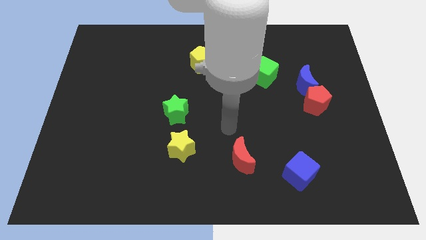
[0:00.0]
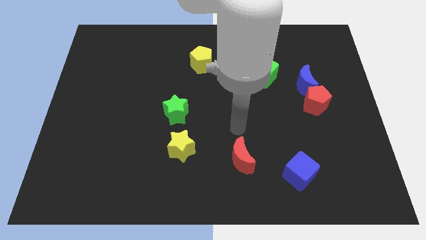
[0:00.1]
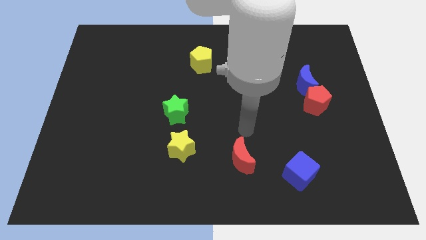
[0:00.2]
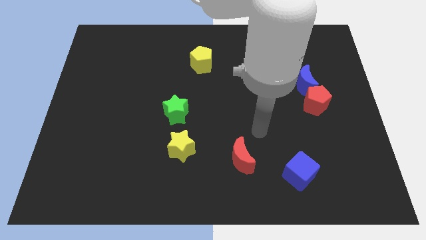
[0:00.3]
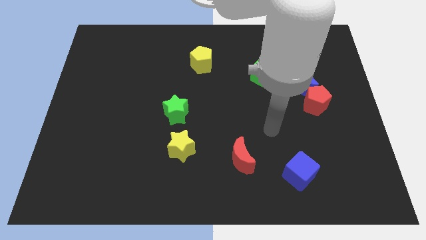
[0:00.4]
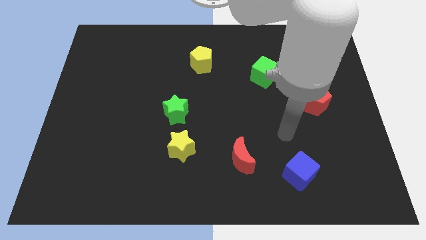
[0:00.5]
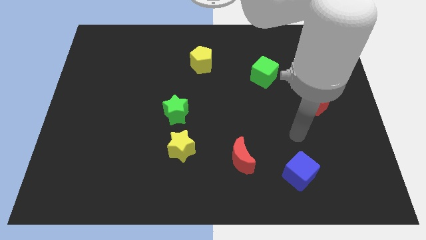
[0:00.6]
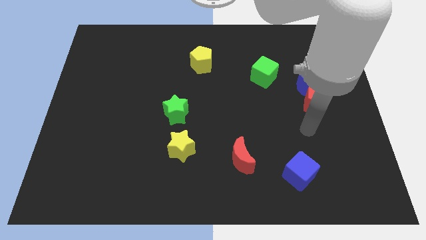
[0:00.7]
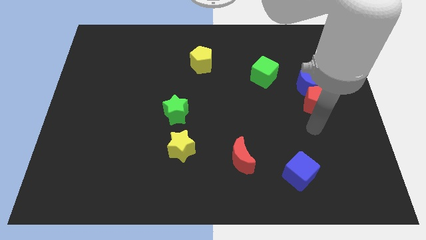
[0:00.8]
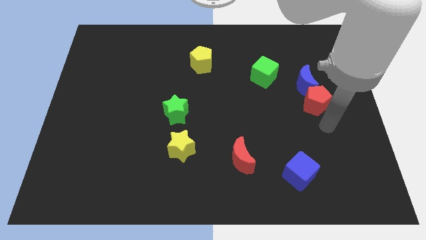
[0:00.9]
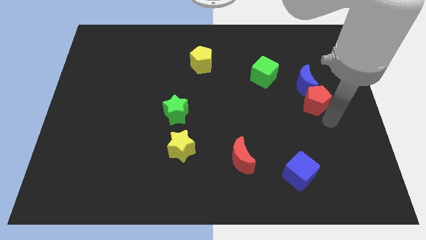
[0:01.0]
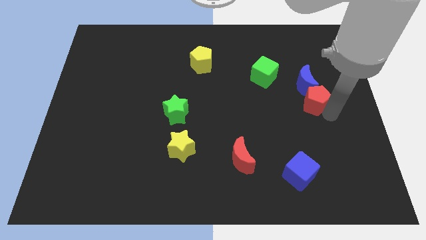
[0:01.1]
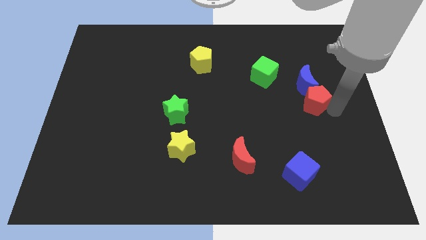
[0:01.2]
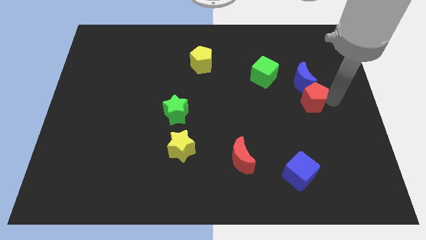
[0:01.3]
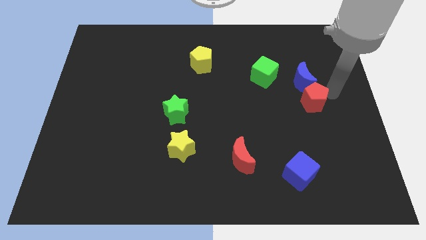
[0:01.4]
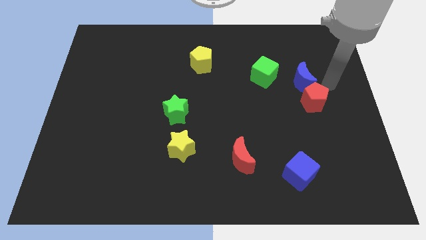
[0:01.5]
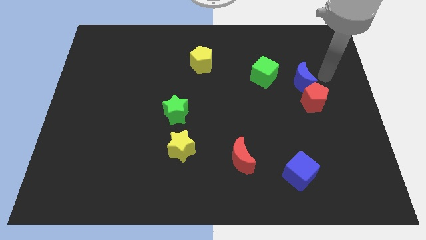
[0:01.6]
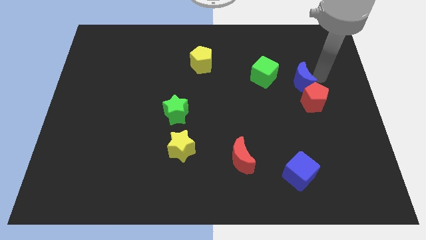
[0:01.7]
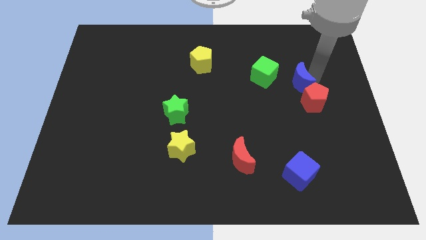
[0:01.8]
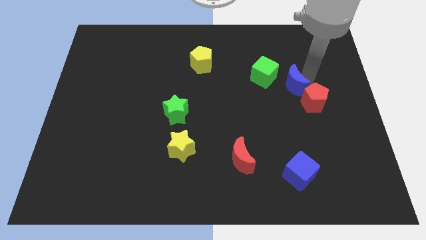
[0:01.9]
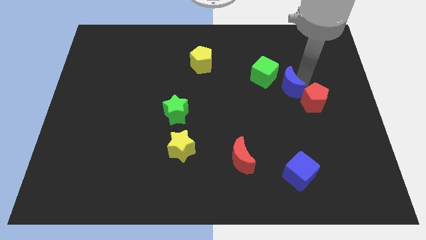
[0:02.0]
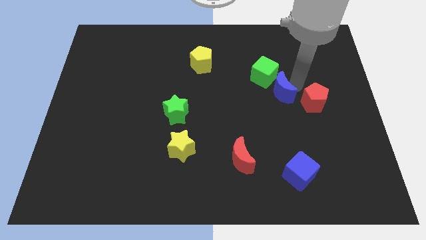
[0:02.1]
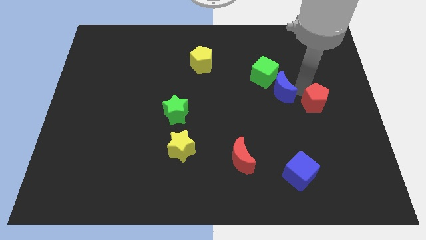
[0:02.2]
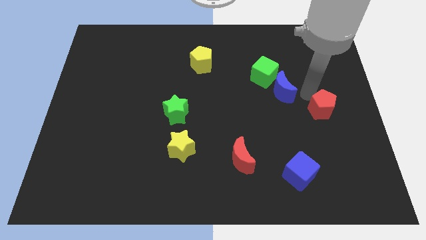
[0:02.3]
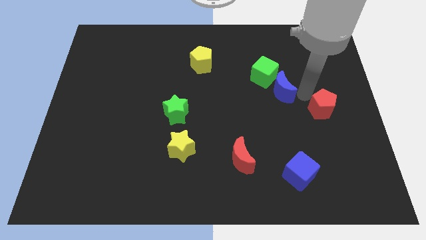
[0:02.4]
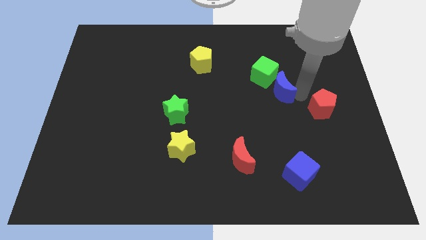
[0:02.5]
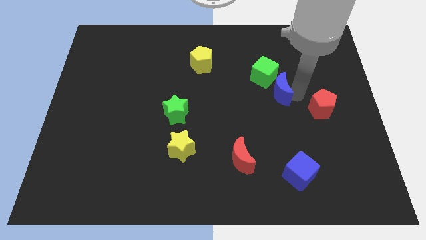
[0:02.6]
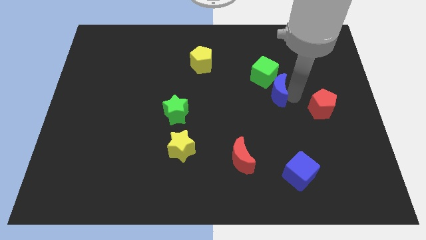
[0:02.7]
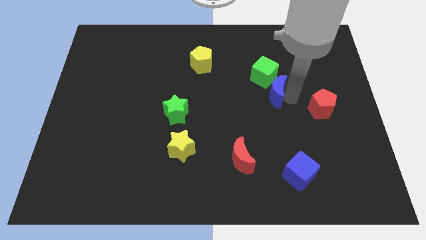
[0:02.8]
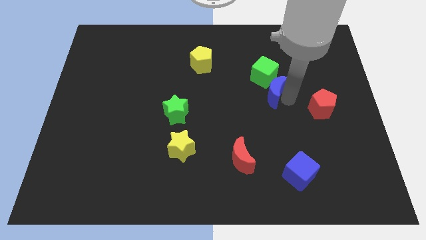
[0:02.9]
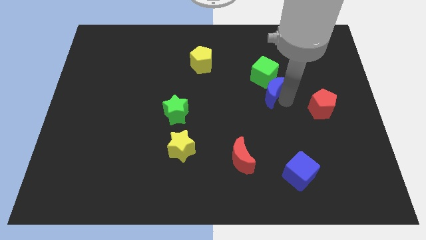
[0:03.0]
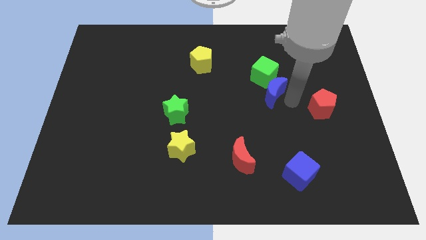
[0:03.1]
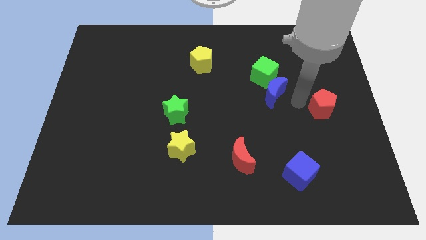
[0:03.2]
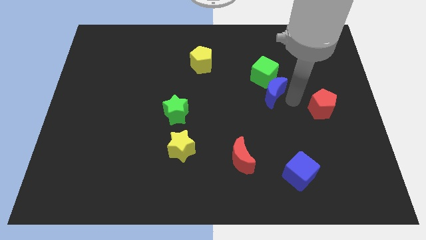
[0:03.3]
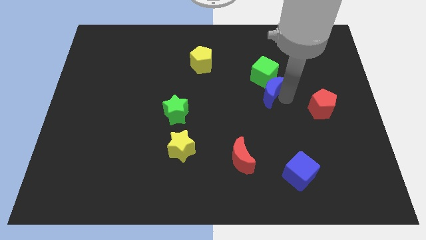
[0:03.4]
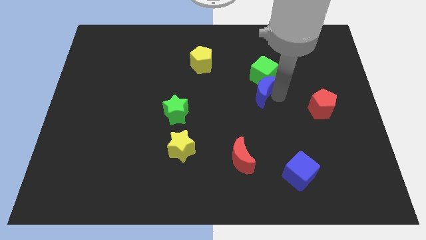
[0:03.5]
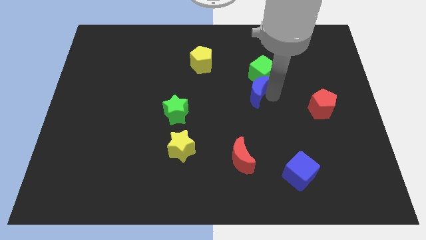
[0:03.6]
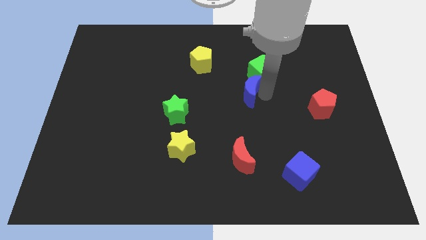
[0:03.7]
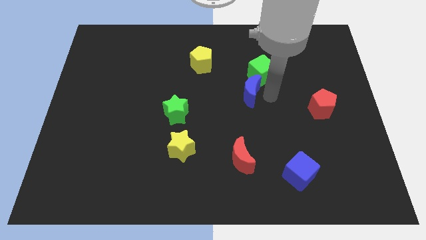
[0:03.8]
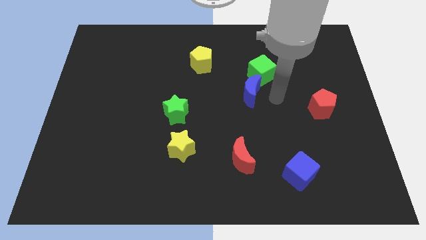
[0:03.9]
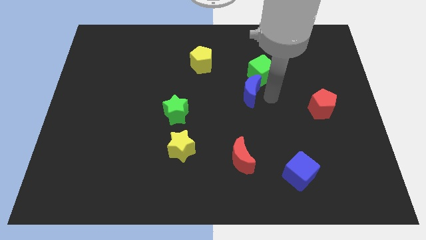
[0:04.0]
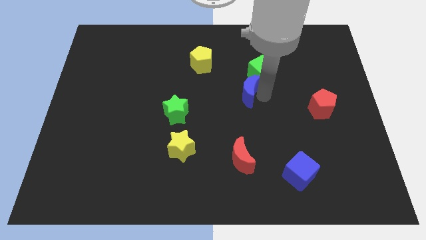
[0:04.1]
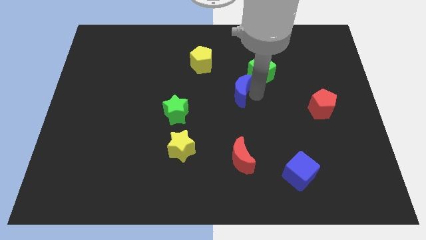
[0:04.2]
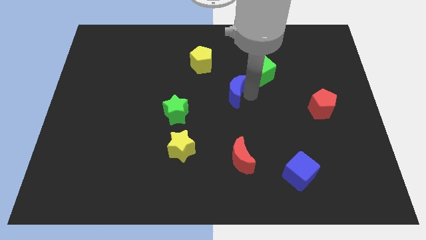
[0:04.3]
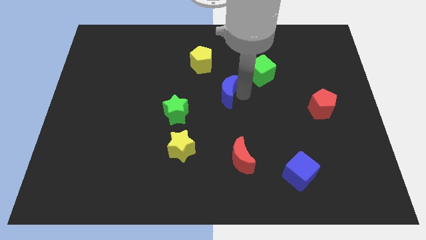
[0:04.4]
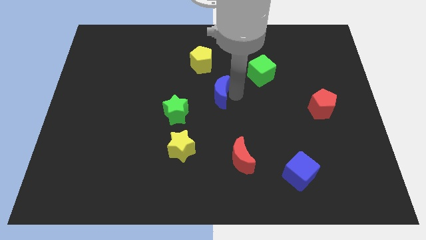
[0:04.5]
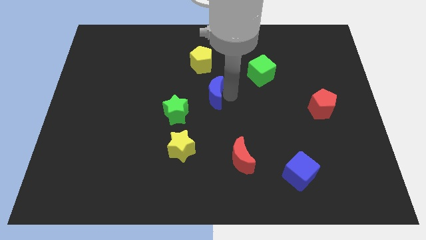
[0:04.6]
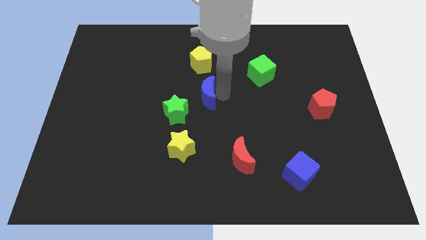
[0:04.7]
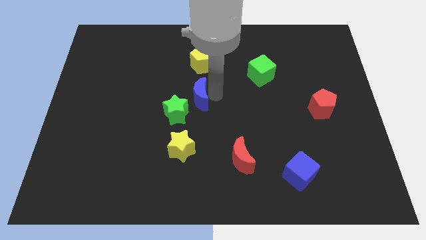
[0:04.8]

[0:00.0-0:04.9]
push the blue moon to the top side of the yellow star

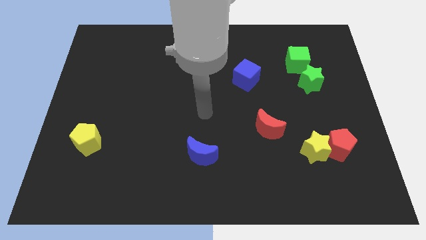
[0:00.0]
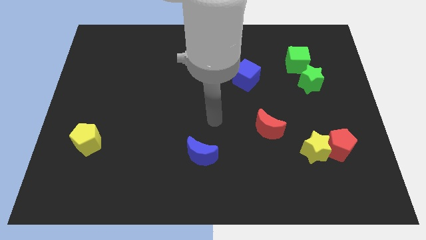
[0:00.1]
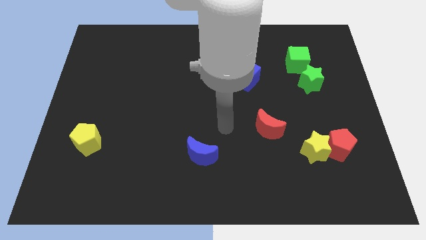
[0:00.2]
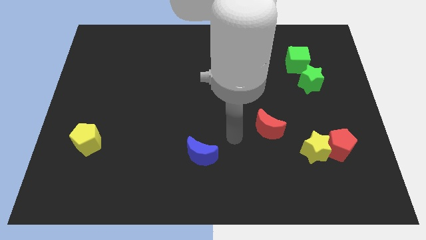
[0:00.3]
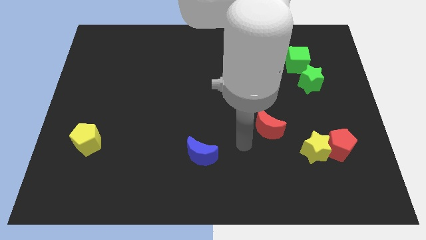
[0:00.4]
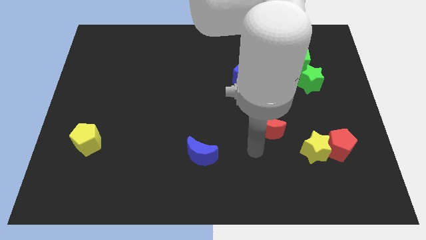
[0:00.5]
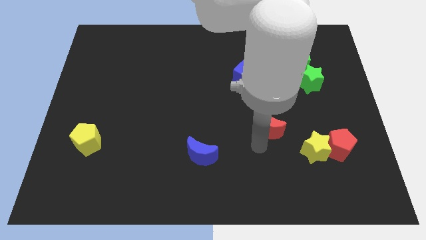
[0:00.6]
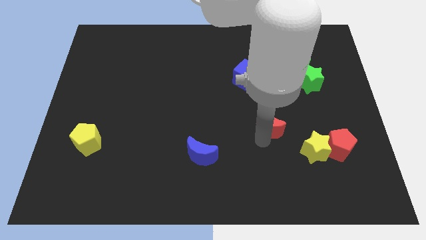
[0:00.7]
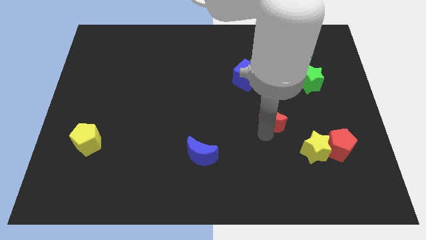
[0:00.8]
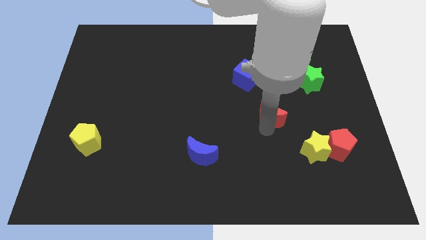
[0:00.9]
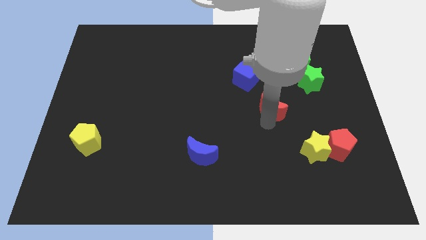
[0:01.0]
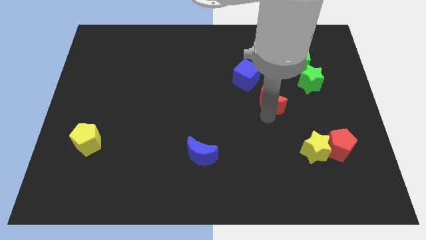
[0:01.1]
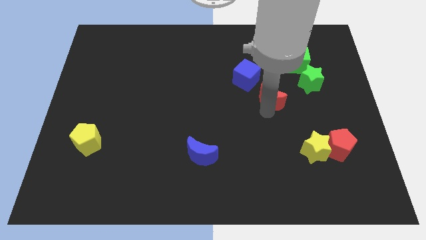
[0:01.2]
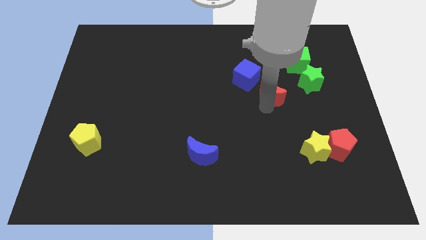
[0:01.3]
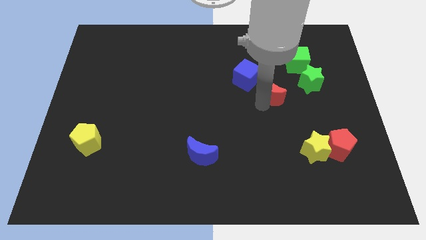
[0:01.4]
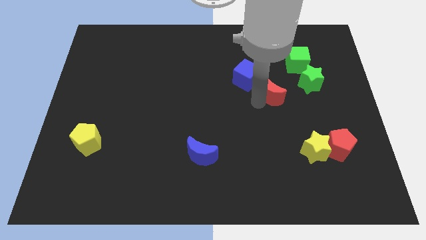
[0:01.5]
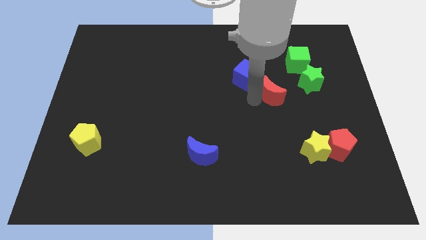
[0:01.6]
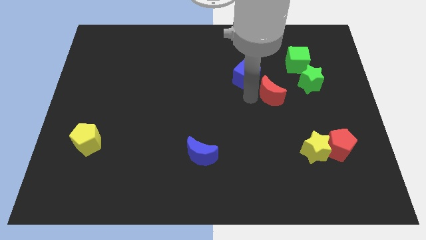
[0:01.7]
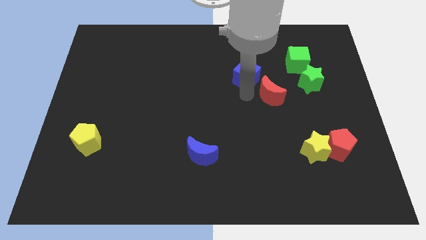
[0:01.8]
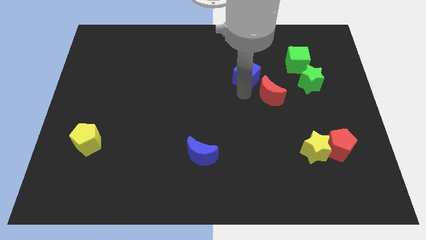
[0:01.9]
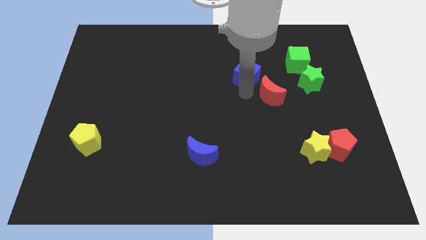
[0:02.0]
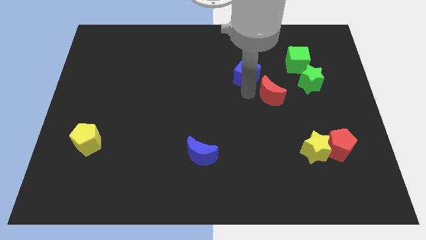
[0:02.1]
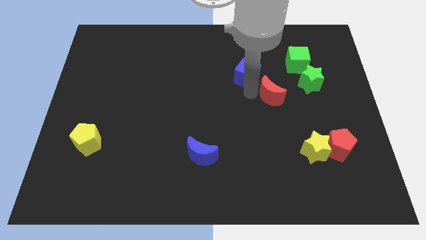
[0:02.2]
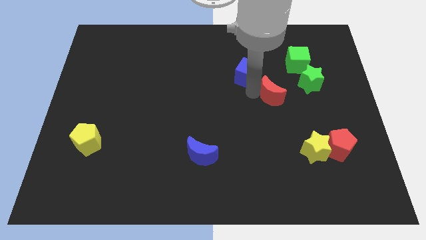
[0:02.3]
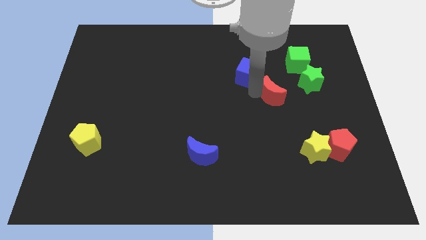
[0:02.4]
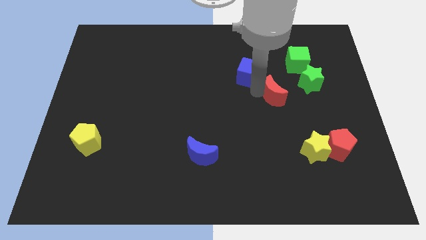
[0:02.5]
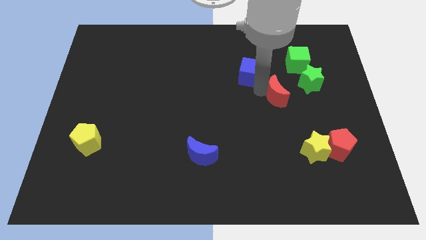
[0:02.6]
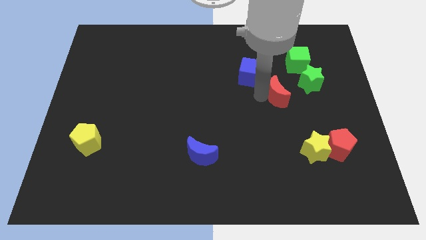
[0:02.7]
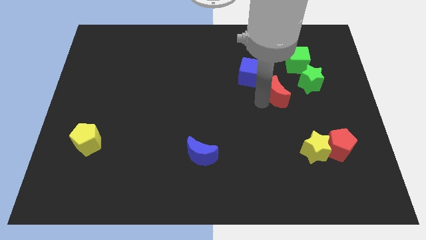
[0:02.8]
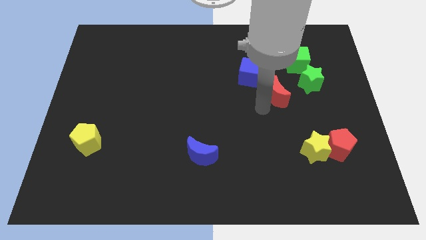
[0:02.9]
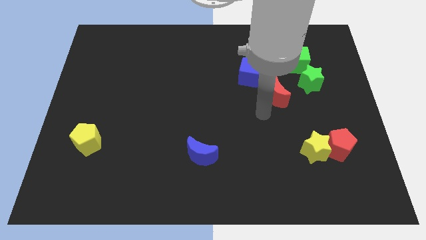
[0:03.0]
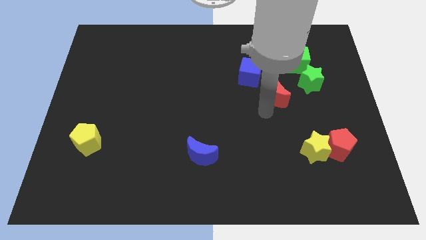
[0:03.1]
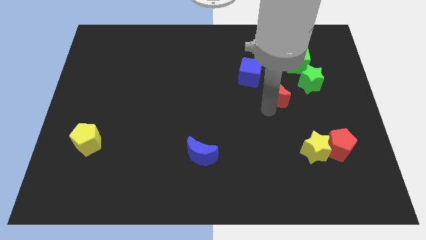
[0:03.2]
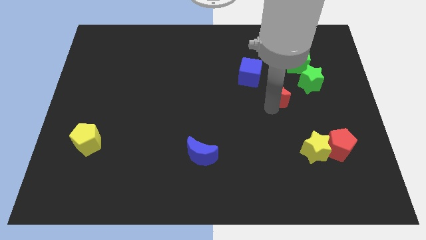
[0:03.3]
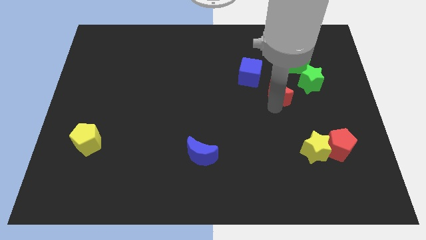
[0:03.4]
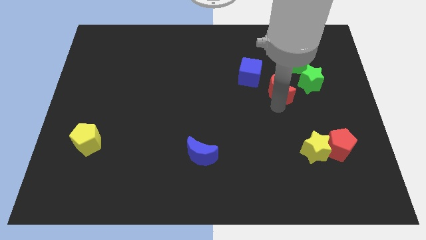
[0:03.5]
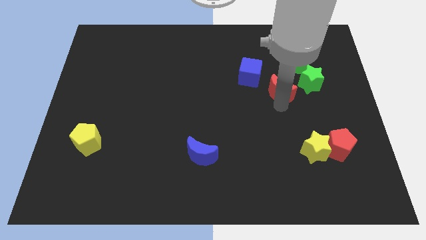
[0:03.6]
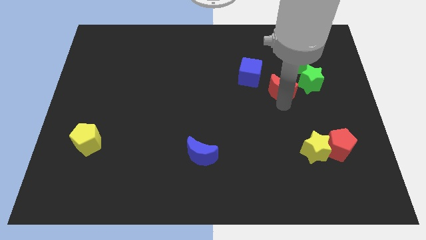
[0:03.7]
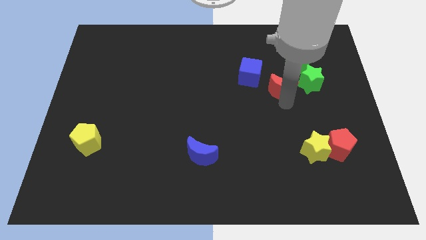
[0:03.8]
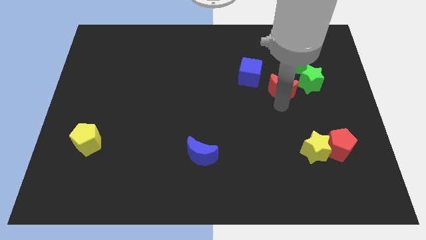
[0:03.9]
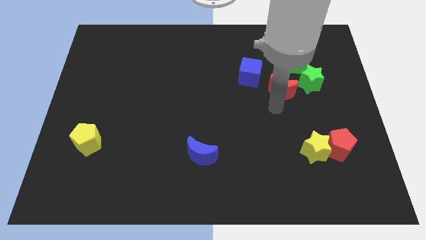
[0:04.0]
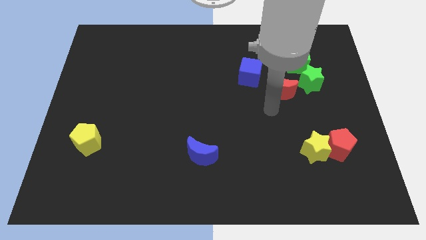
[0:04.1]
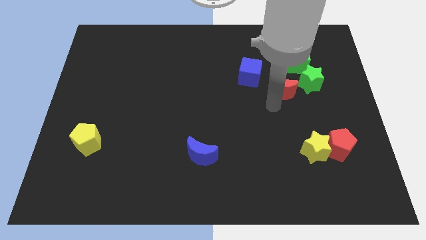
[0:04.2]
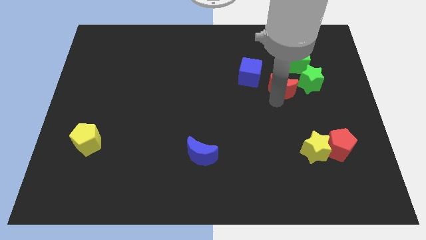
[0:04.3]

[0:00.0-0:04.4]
push the red moon just right of the blue cube
